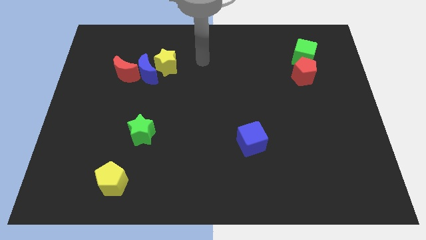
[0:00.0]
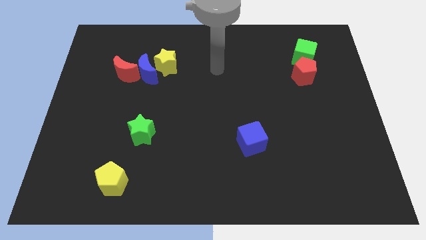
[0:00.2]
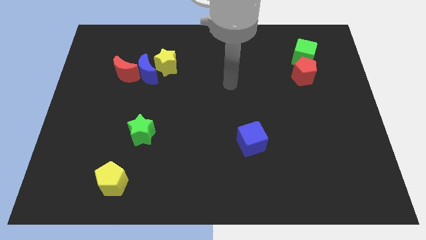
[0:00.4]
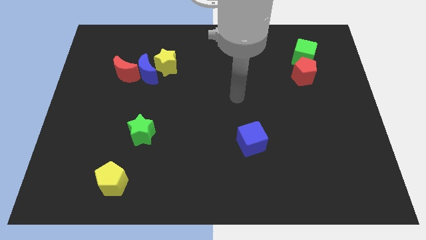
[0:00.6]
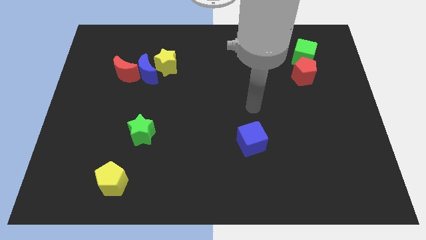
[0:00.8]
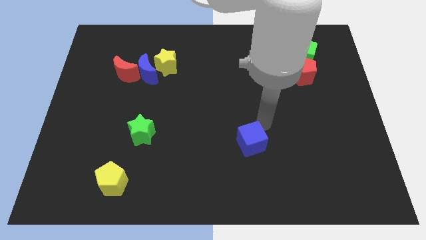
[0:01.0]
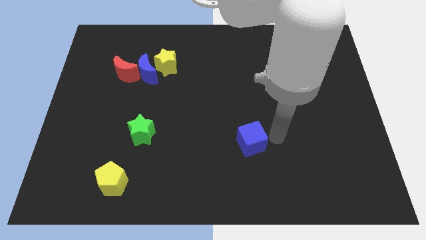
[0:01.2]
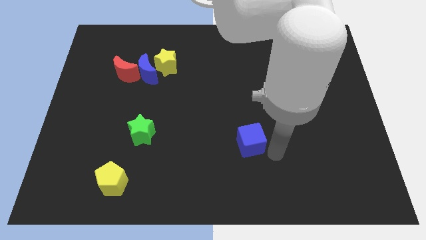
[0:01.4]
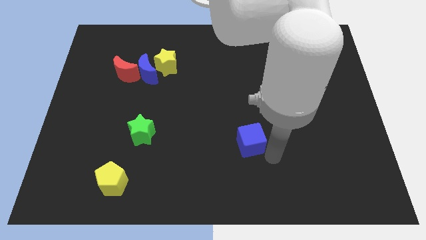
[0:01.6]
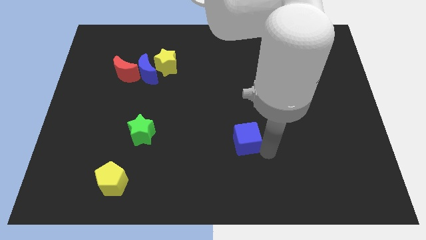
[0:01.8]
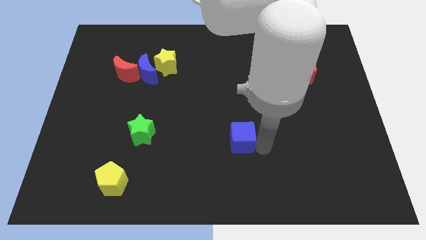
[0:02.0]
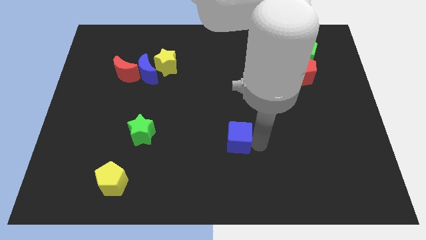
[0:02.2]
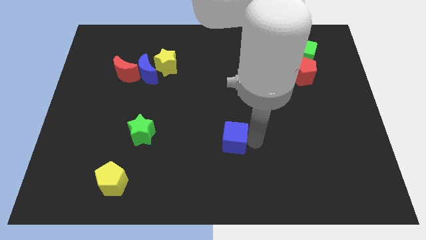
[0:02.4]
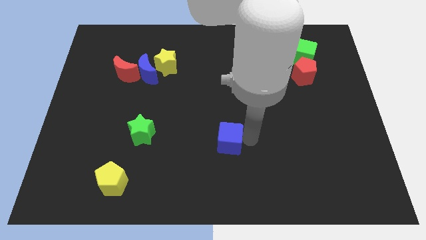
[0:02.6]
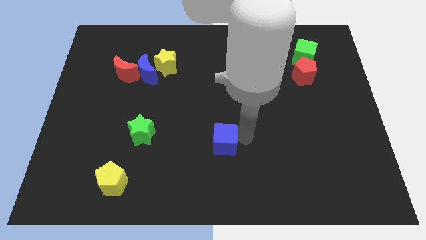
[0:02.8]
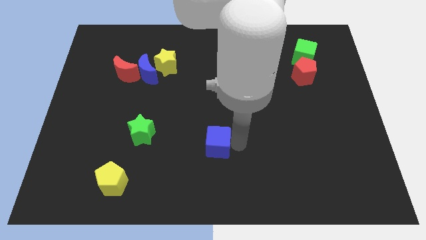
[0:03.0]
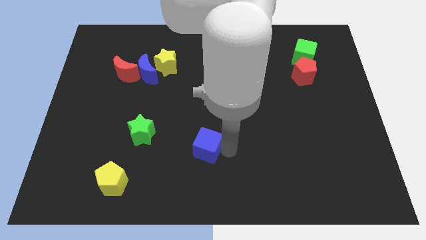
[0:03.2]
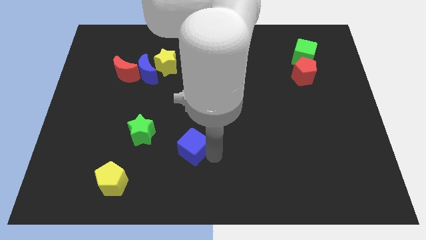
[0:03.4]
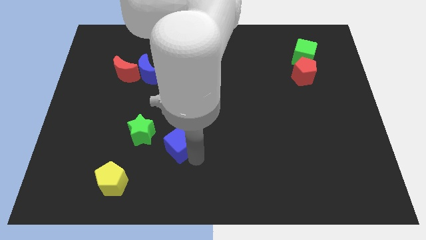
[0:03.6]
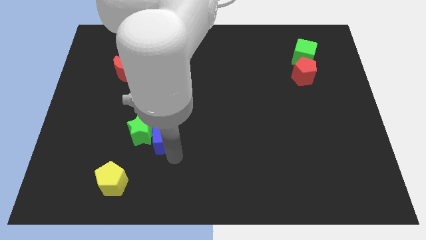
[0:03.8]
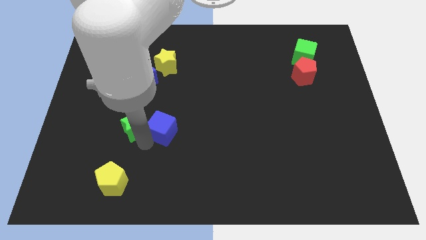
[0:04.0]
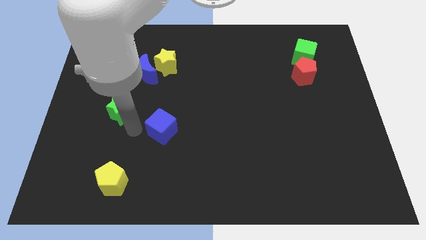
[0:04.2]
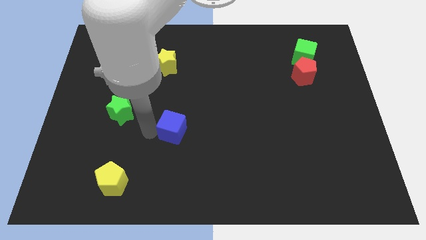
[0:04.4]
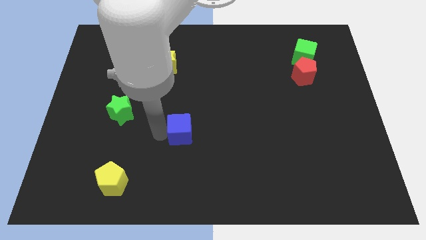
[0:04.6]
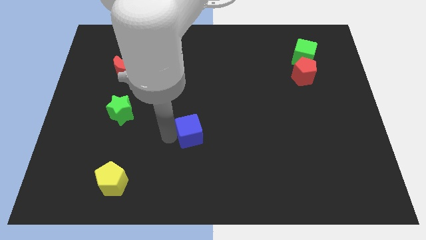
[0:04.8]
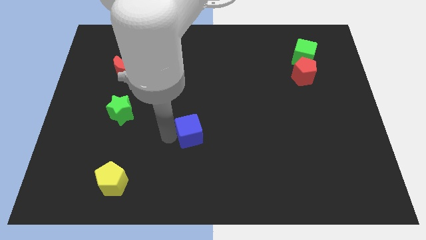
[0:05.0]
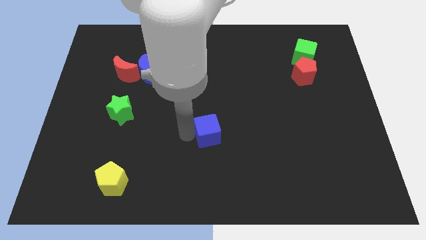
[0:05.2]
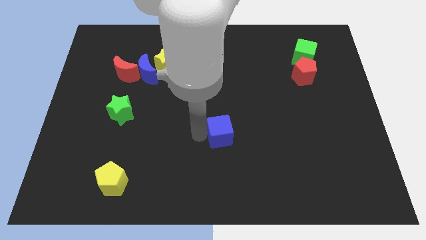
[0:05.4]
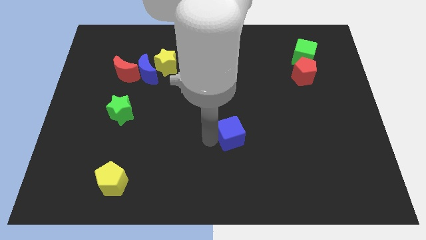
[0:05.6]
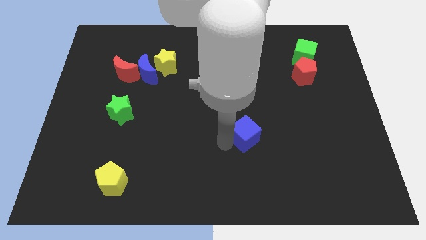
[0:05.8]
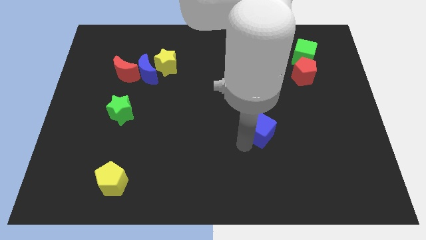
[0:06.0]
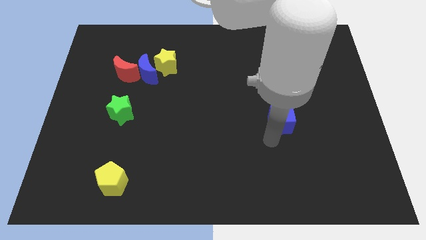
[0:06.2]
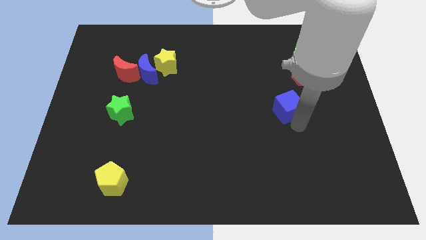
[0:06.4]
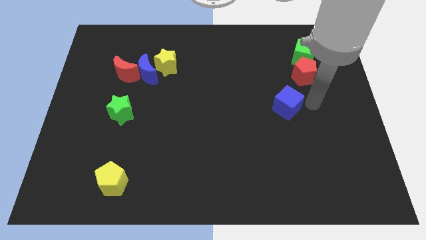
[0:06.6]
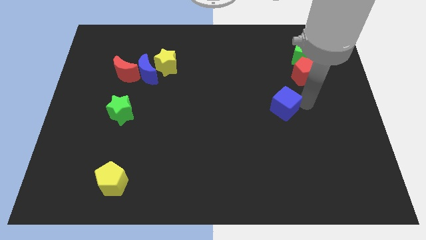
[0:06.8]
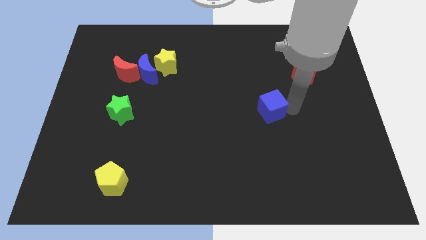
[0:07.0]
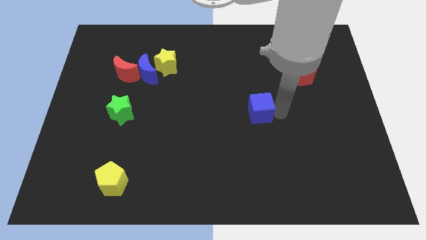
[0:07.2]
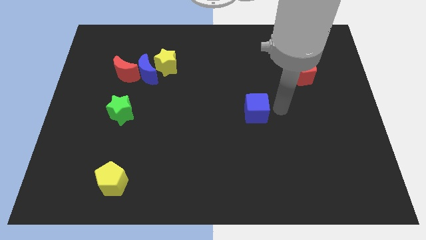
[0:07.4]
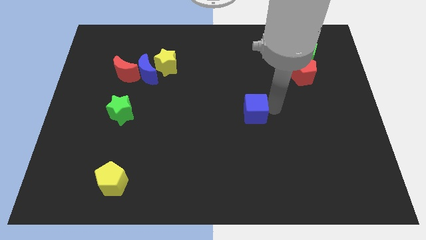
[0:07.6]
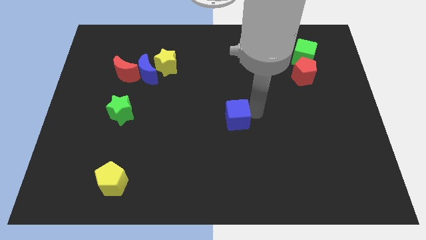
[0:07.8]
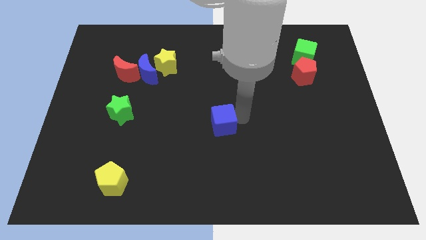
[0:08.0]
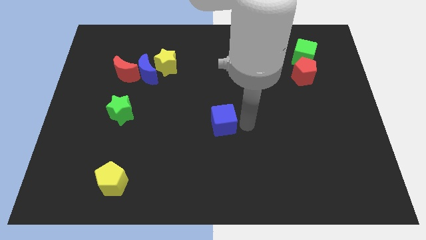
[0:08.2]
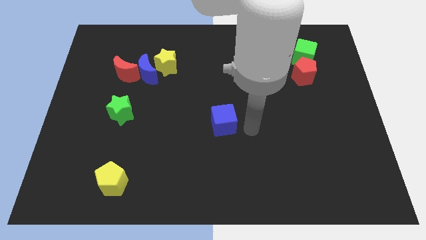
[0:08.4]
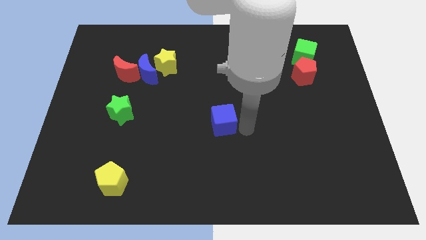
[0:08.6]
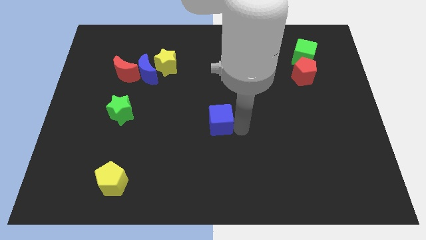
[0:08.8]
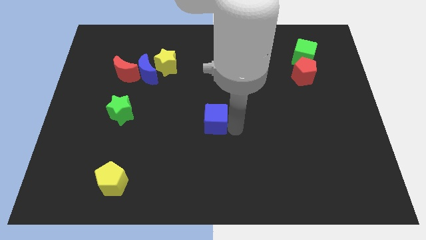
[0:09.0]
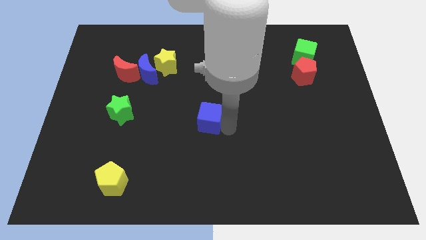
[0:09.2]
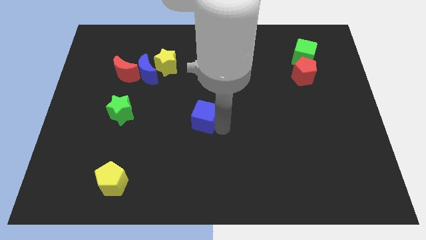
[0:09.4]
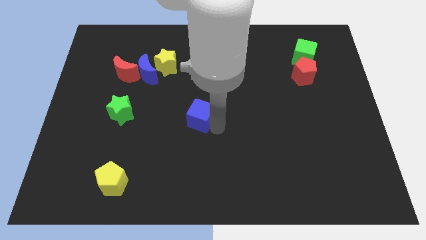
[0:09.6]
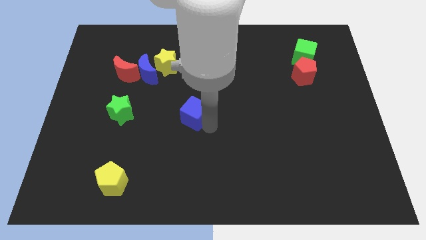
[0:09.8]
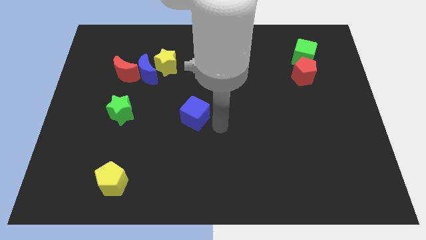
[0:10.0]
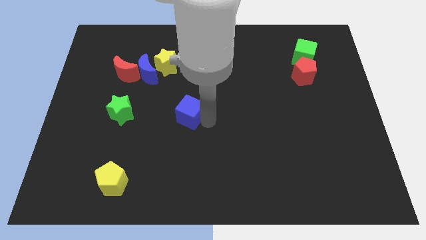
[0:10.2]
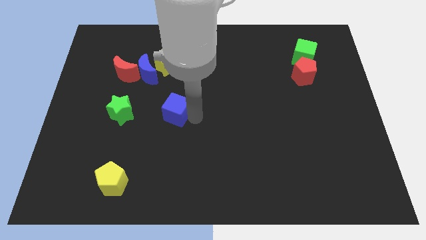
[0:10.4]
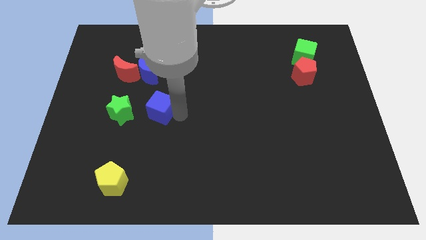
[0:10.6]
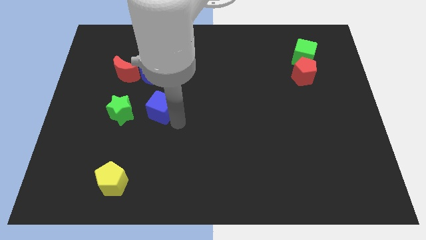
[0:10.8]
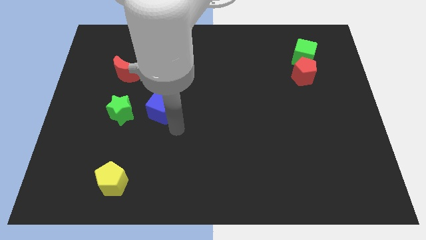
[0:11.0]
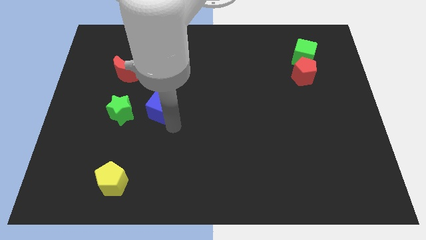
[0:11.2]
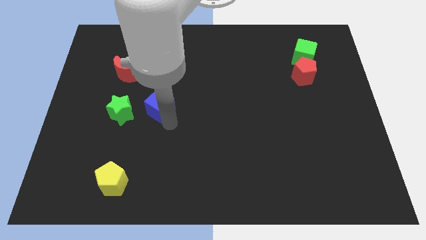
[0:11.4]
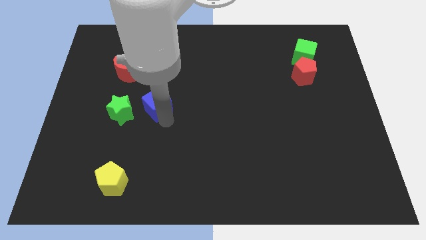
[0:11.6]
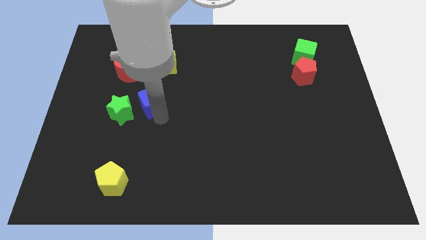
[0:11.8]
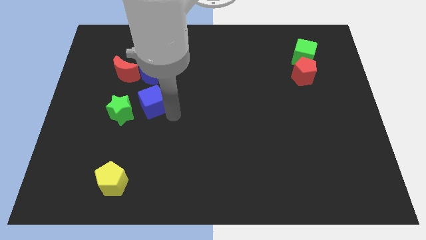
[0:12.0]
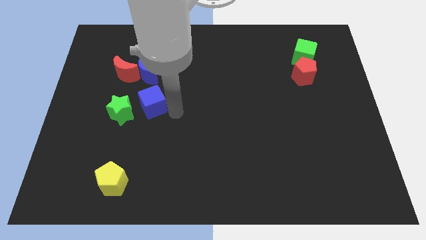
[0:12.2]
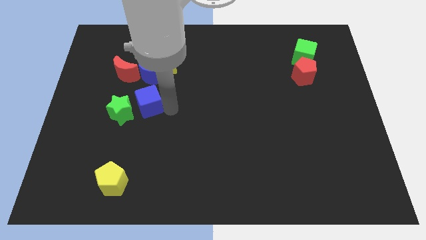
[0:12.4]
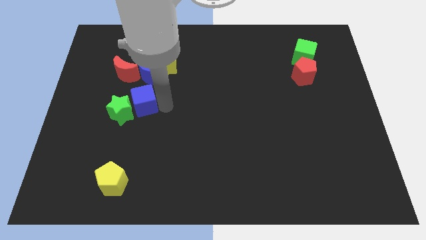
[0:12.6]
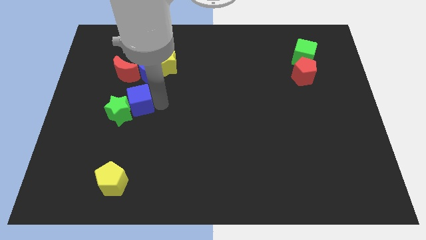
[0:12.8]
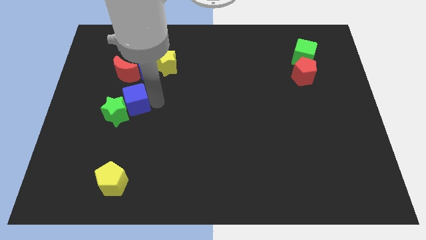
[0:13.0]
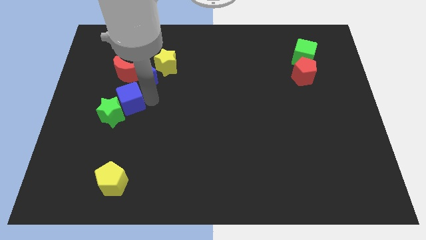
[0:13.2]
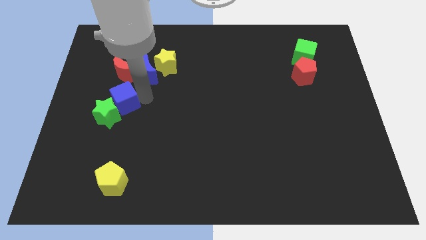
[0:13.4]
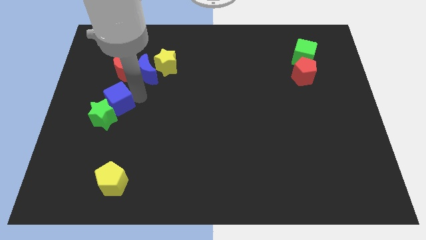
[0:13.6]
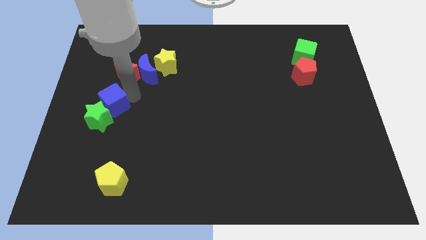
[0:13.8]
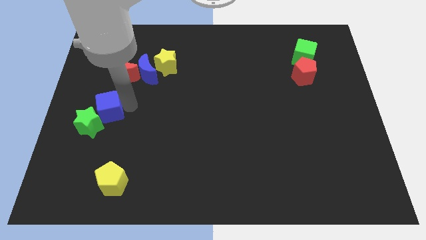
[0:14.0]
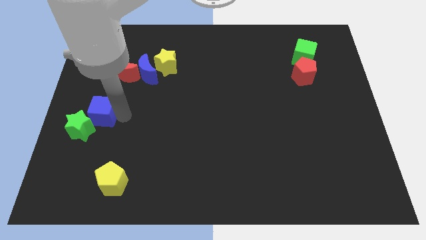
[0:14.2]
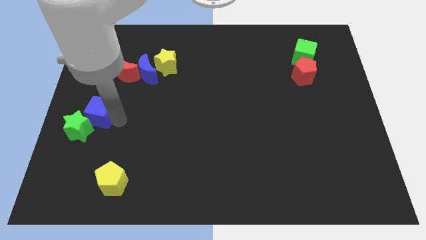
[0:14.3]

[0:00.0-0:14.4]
put the blue cube to the left side
